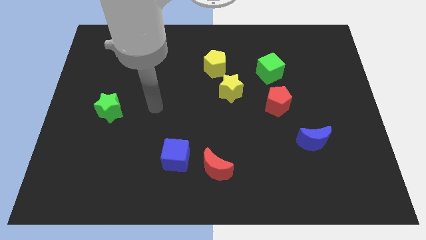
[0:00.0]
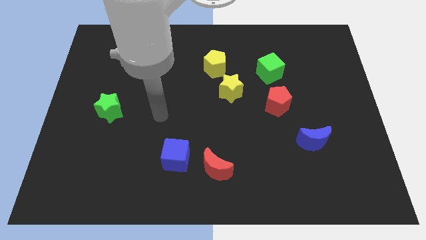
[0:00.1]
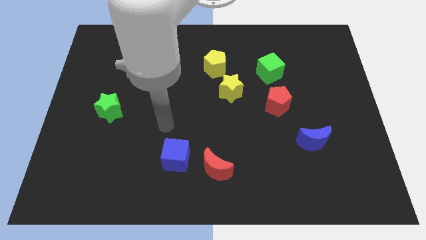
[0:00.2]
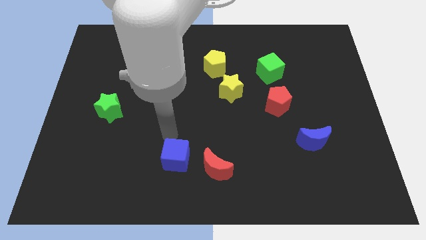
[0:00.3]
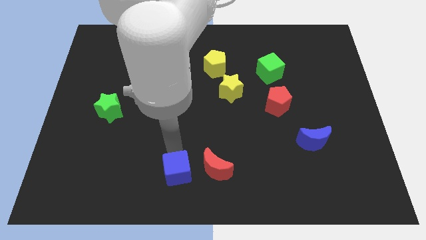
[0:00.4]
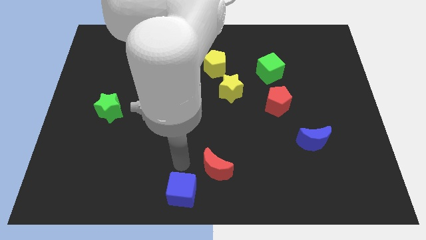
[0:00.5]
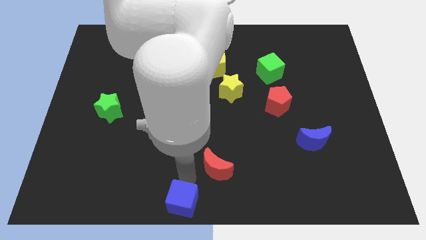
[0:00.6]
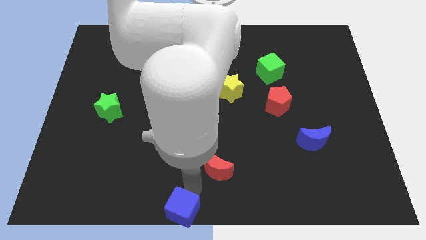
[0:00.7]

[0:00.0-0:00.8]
move the red moon away from the blue cube

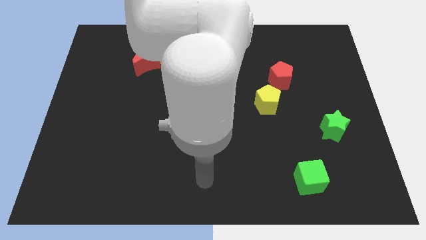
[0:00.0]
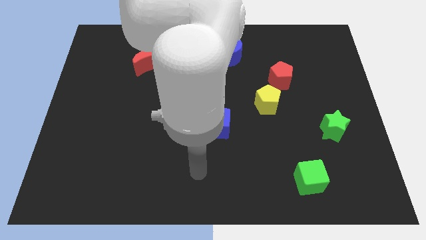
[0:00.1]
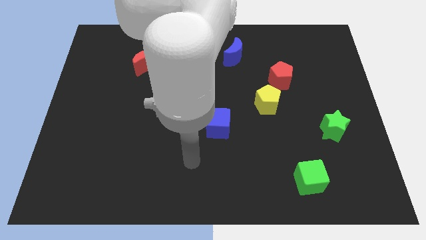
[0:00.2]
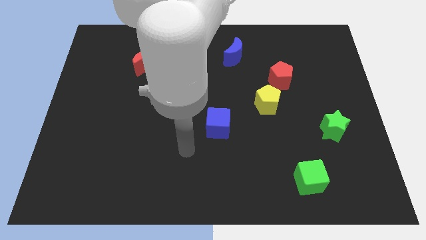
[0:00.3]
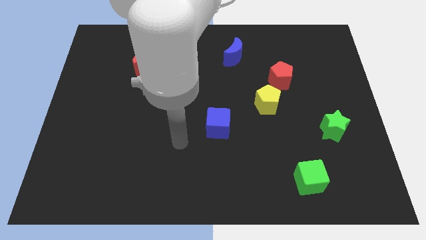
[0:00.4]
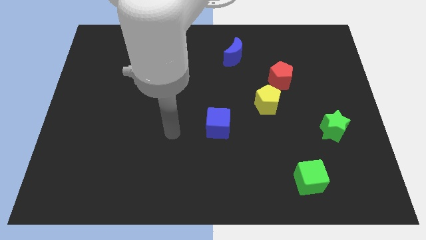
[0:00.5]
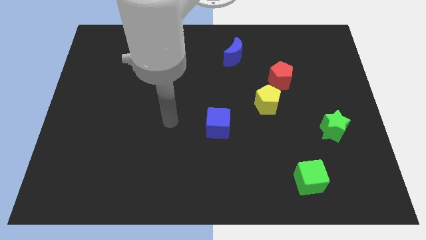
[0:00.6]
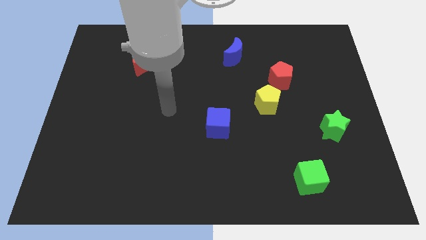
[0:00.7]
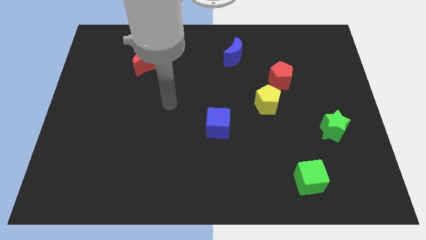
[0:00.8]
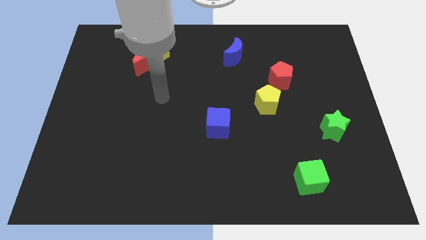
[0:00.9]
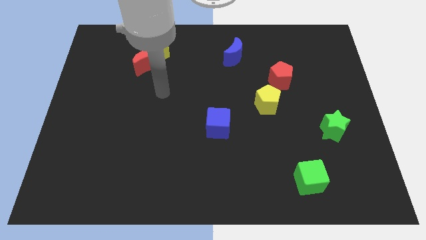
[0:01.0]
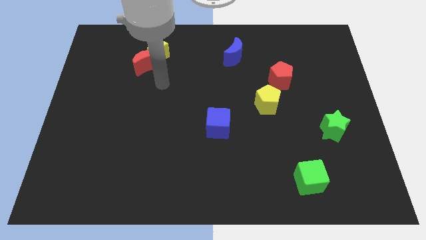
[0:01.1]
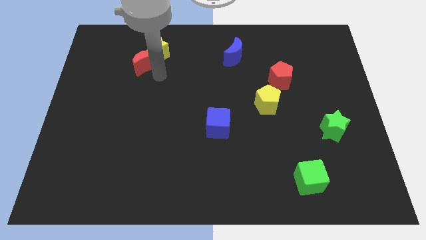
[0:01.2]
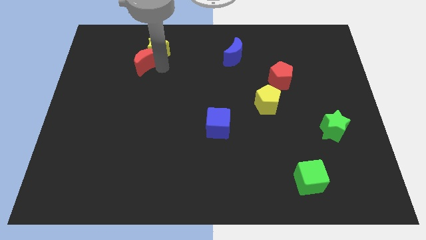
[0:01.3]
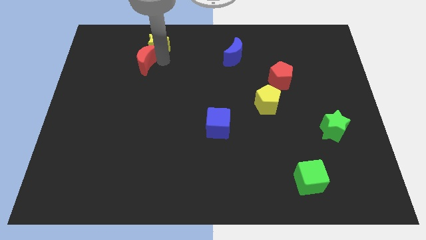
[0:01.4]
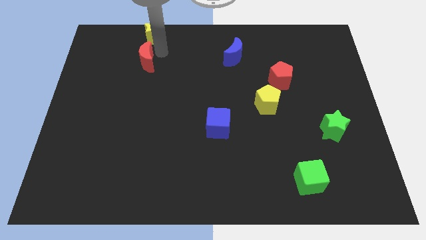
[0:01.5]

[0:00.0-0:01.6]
move the red moon away from the yellow star

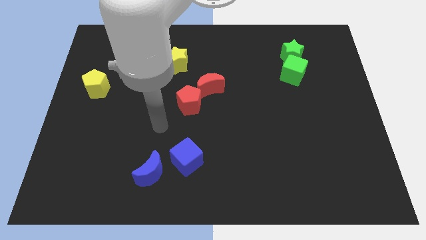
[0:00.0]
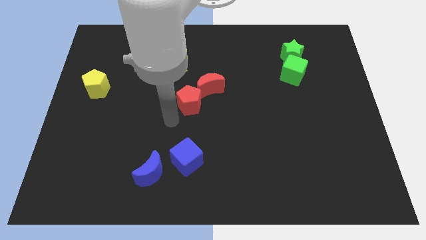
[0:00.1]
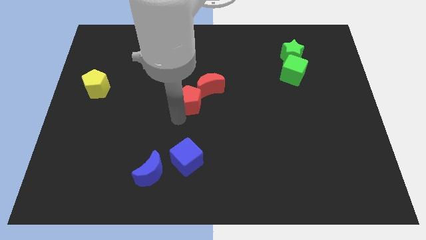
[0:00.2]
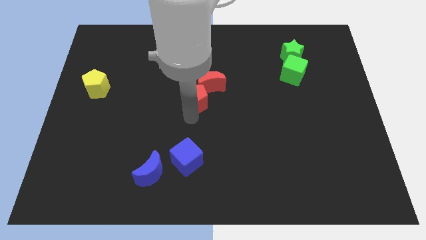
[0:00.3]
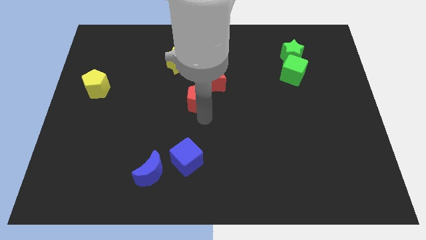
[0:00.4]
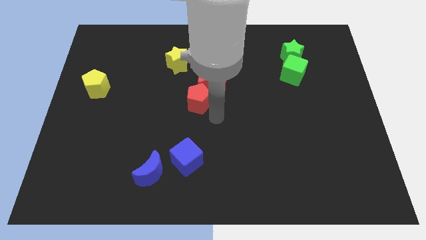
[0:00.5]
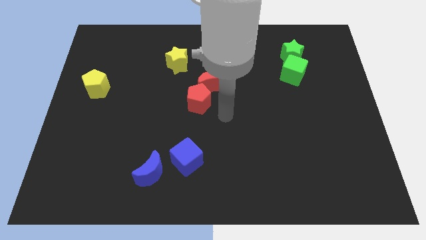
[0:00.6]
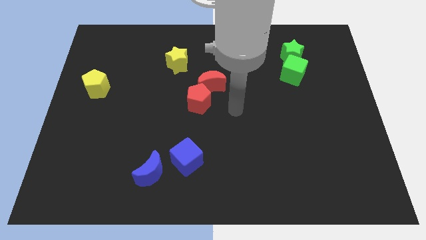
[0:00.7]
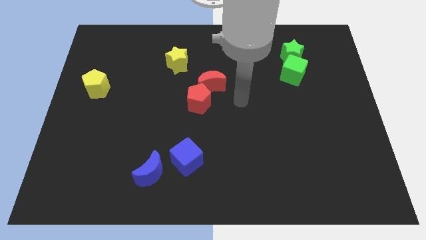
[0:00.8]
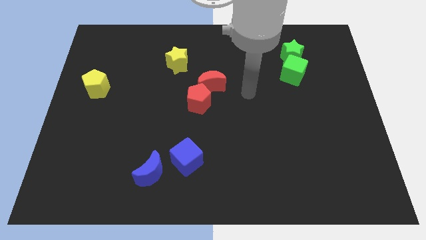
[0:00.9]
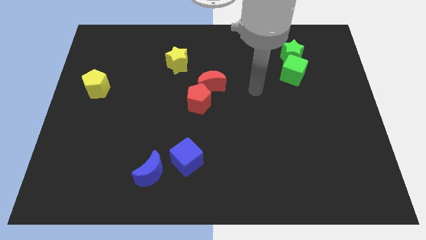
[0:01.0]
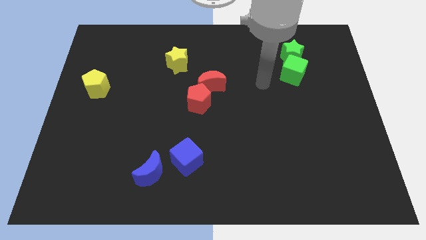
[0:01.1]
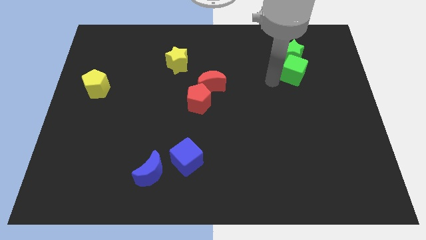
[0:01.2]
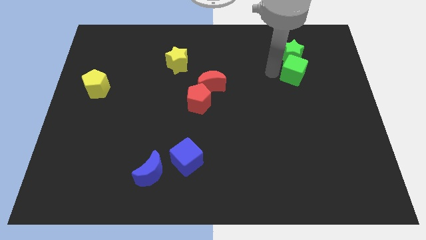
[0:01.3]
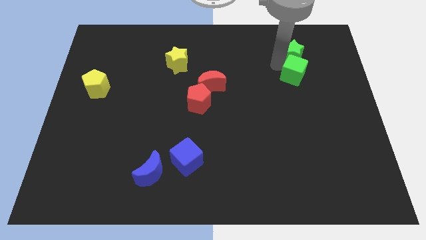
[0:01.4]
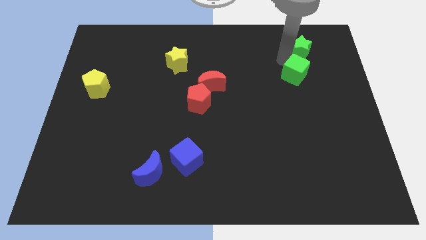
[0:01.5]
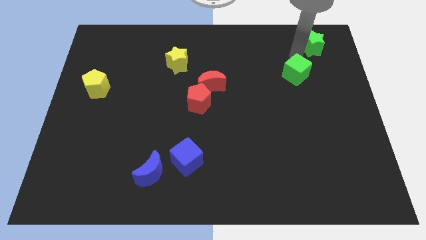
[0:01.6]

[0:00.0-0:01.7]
separate the green cube from the green star

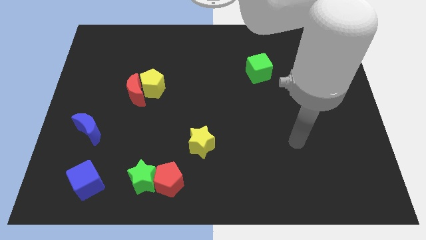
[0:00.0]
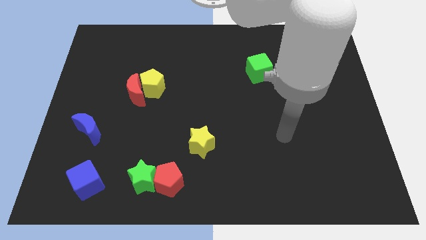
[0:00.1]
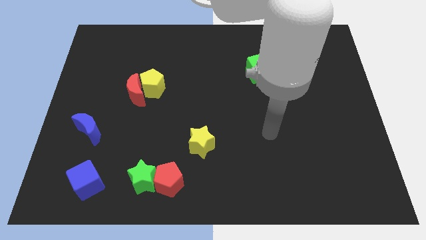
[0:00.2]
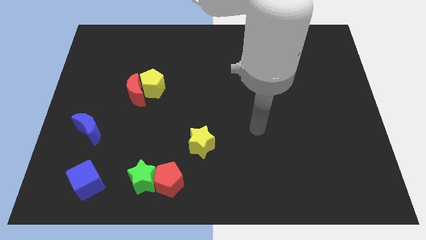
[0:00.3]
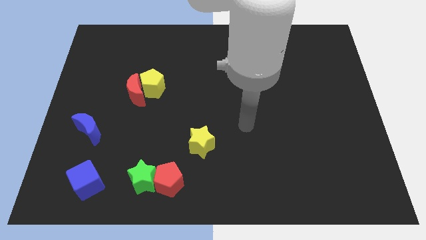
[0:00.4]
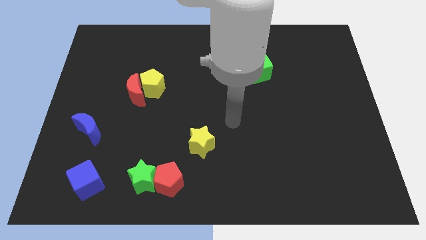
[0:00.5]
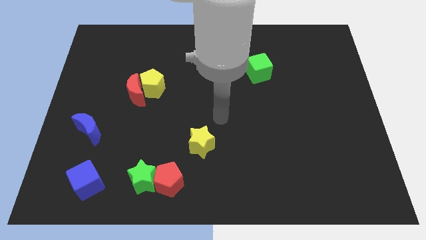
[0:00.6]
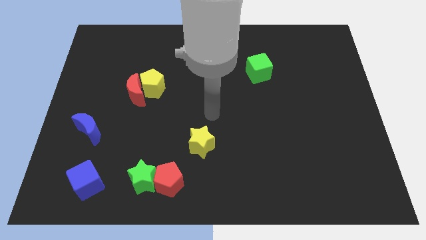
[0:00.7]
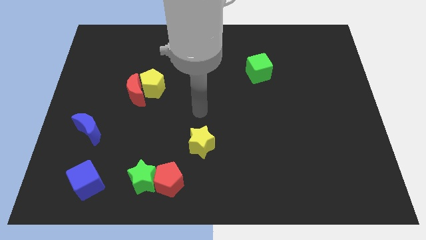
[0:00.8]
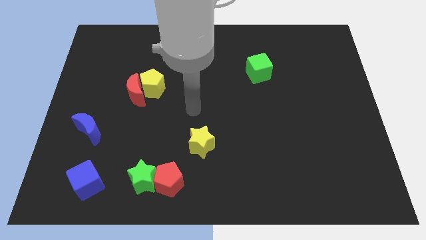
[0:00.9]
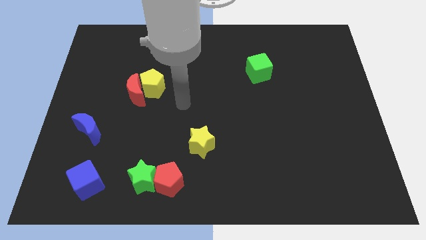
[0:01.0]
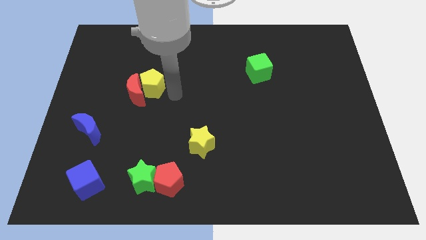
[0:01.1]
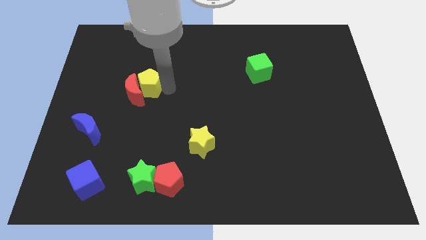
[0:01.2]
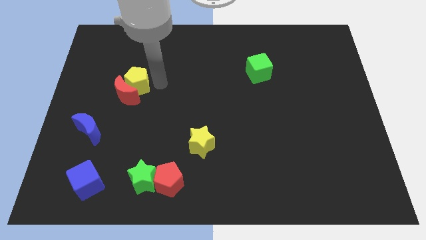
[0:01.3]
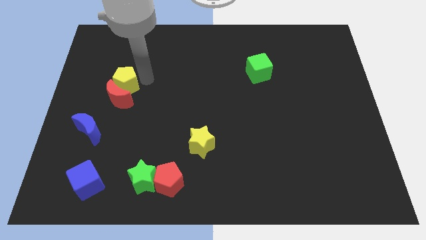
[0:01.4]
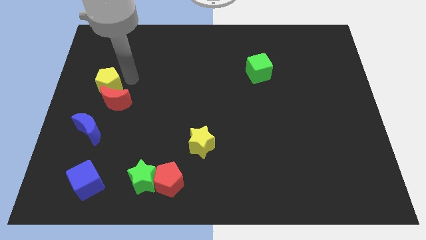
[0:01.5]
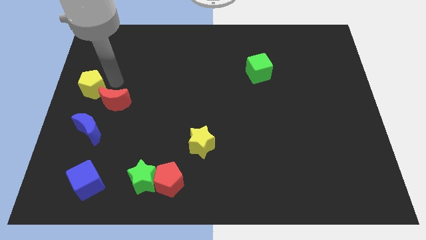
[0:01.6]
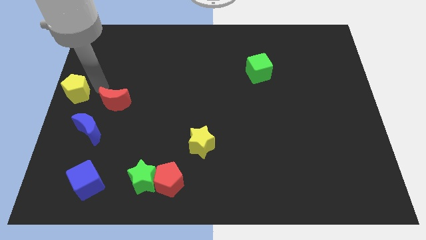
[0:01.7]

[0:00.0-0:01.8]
separate the red moon from the yellow pentagon

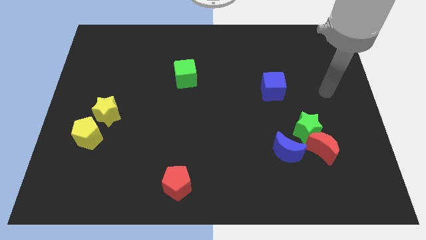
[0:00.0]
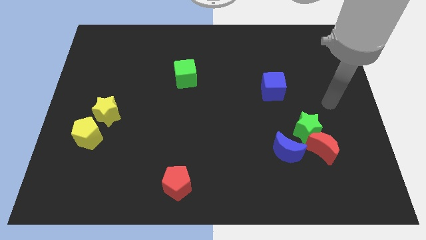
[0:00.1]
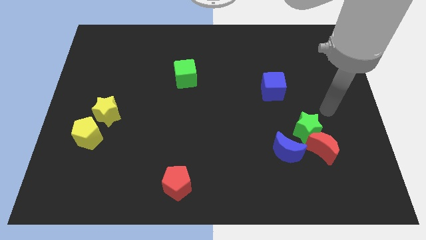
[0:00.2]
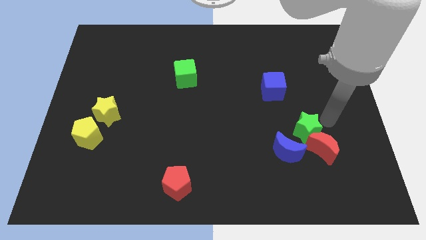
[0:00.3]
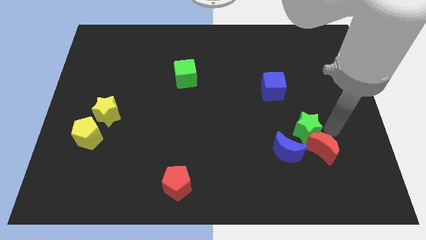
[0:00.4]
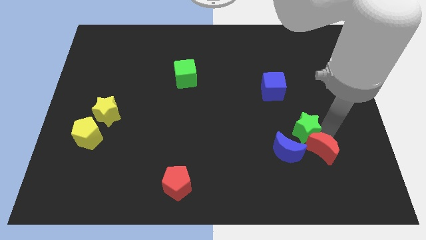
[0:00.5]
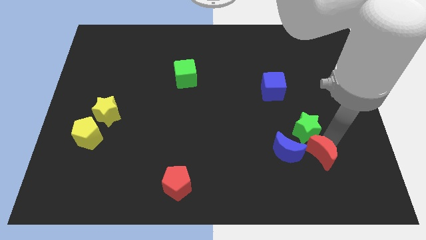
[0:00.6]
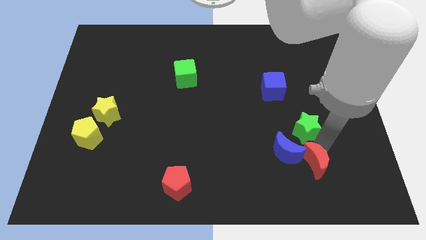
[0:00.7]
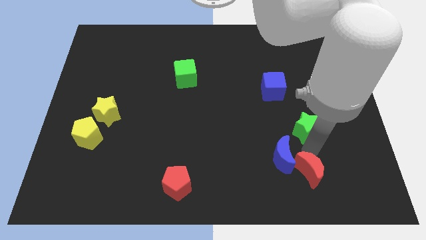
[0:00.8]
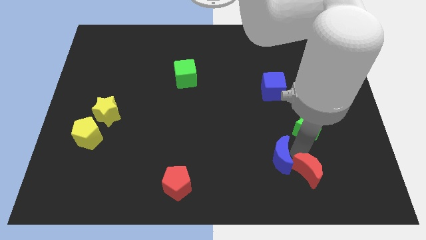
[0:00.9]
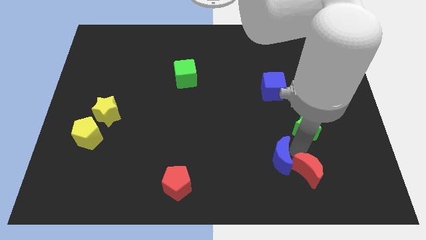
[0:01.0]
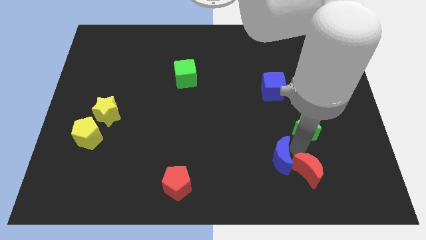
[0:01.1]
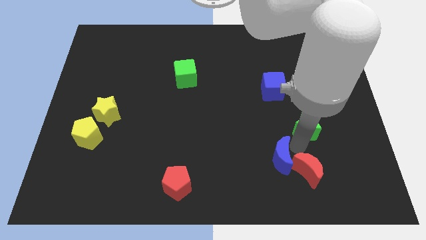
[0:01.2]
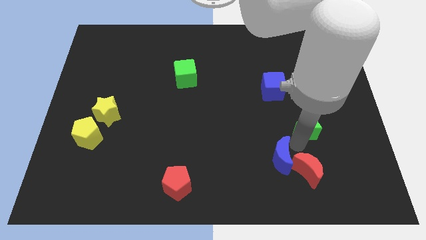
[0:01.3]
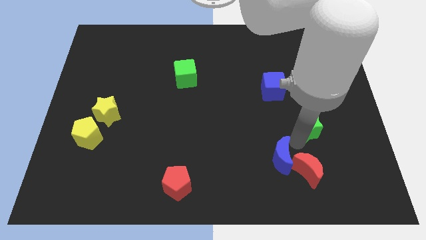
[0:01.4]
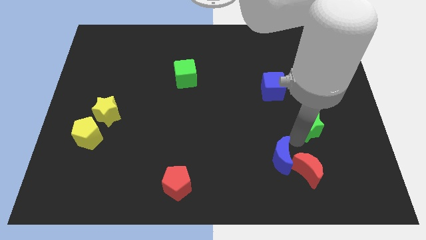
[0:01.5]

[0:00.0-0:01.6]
move the green star away from the red moon and blue moon

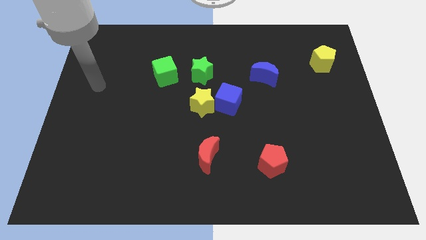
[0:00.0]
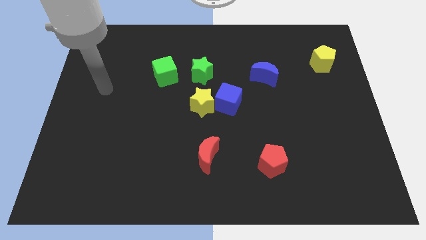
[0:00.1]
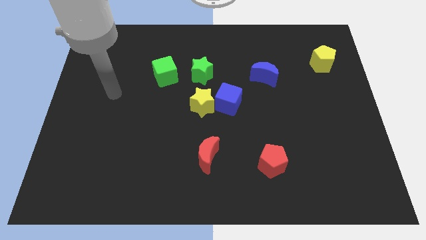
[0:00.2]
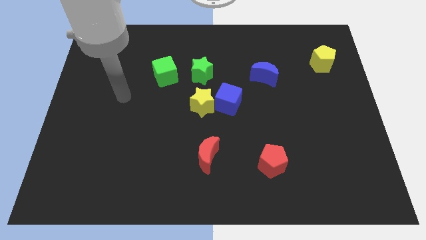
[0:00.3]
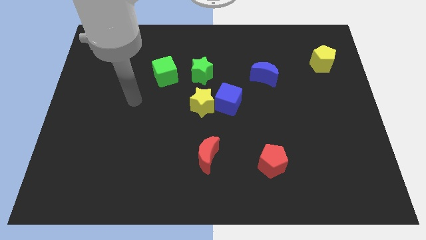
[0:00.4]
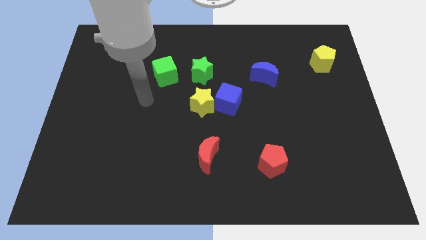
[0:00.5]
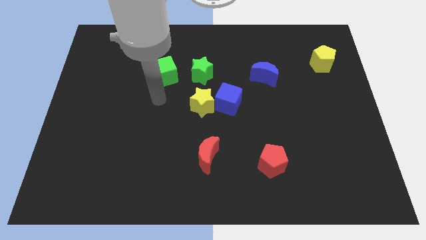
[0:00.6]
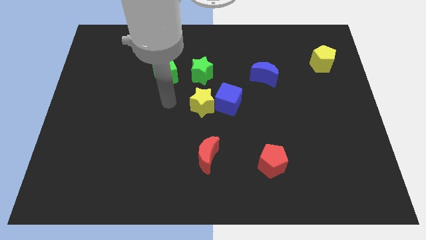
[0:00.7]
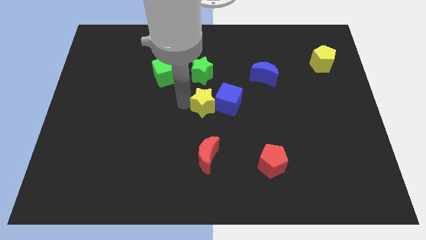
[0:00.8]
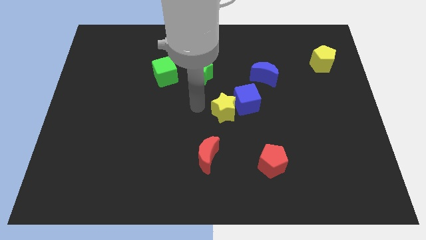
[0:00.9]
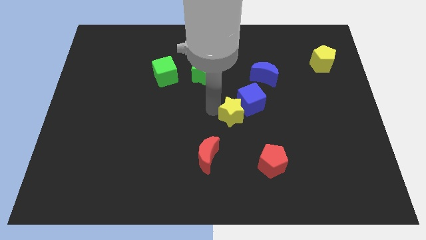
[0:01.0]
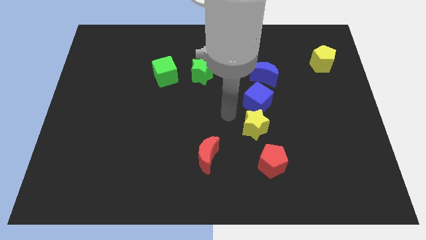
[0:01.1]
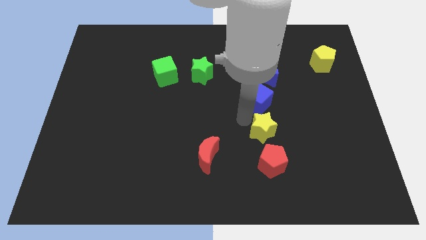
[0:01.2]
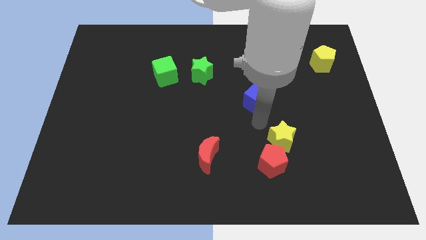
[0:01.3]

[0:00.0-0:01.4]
move the blue cube away from the yellow star

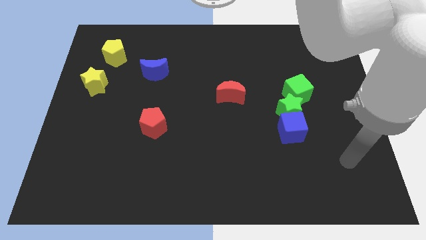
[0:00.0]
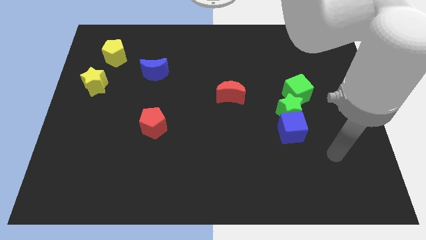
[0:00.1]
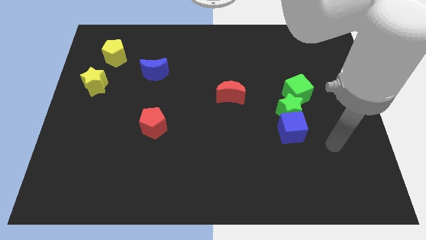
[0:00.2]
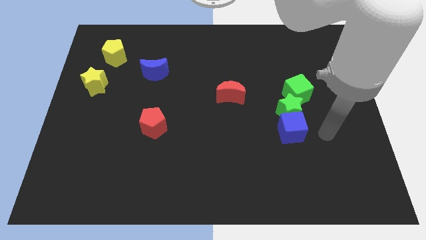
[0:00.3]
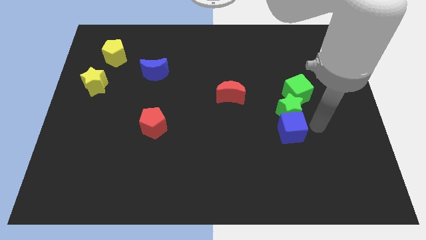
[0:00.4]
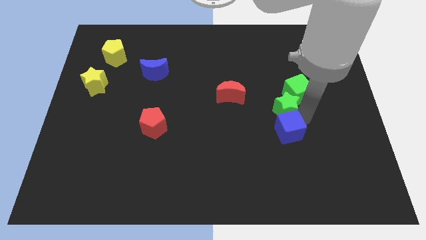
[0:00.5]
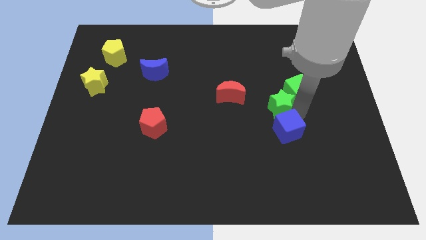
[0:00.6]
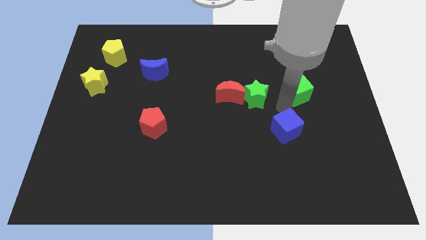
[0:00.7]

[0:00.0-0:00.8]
move the blue cube away from the green star
